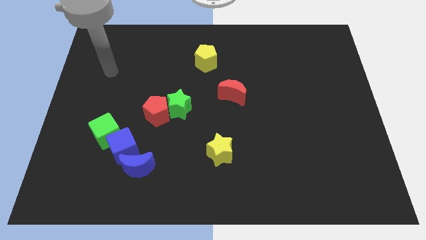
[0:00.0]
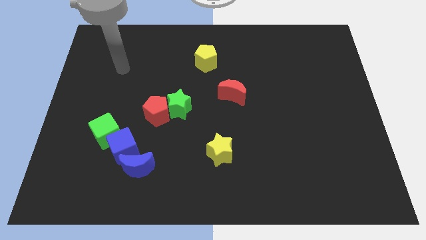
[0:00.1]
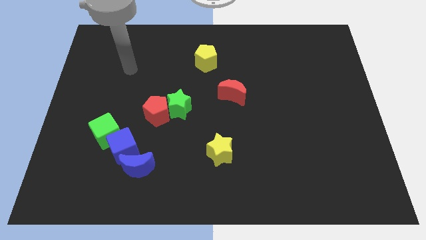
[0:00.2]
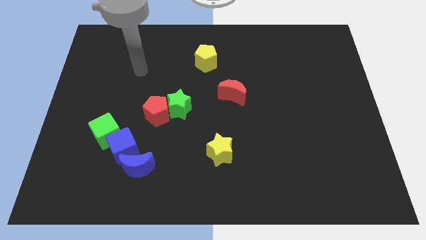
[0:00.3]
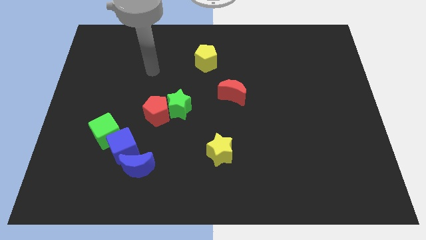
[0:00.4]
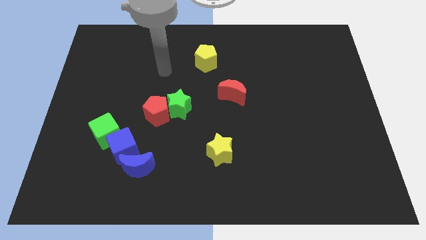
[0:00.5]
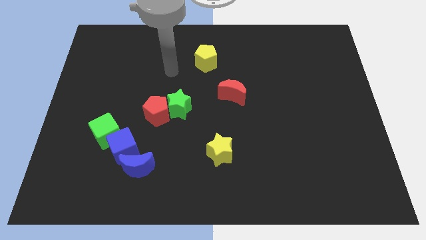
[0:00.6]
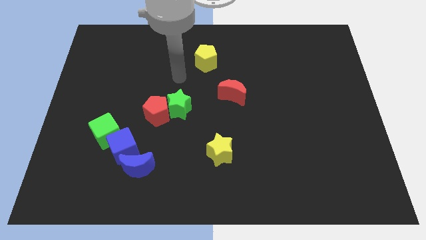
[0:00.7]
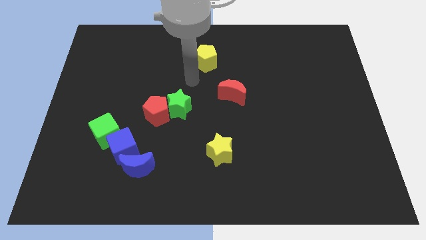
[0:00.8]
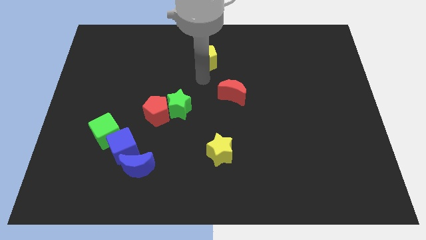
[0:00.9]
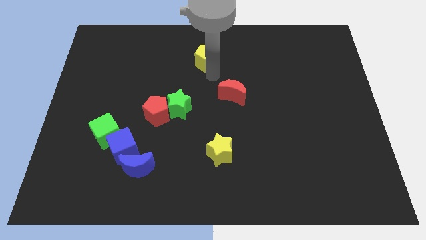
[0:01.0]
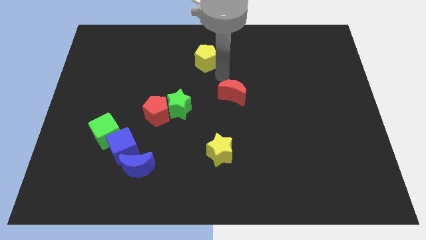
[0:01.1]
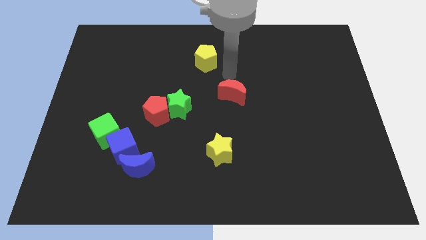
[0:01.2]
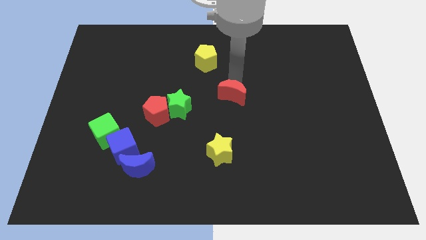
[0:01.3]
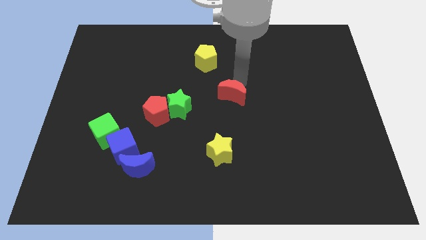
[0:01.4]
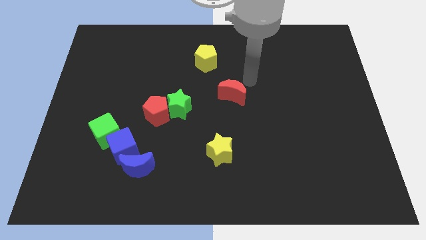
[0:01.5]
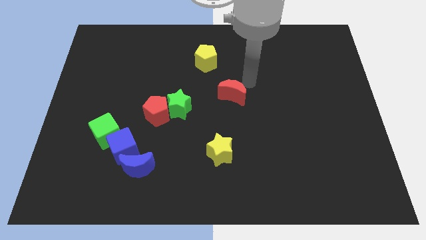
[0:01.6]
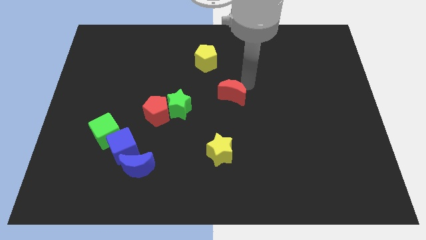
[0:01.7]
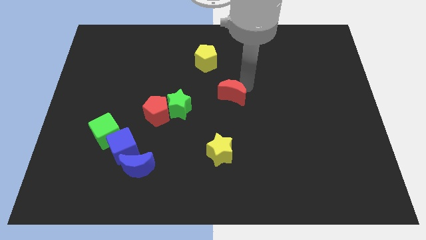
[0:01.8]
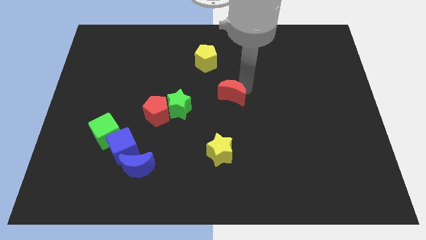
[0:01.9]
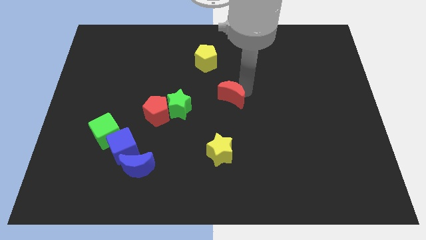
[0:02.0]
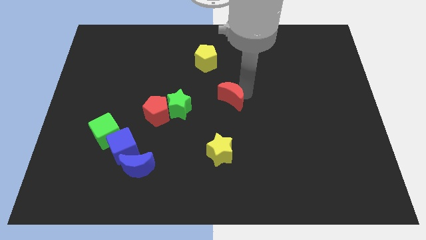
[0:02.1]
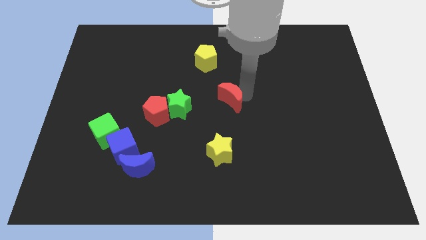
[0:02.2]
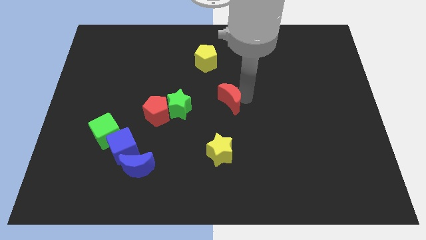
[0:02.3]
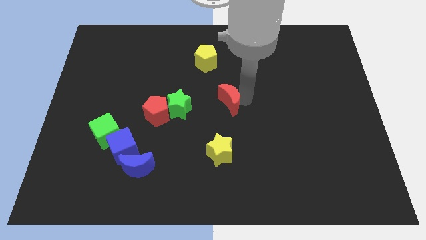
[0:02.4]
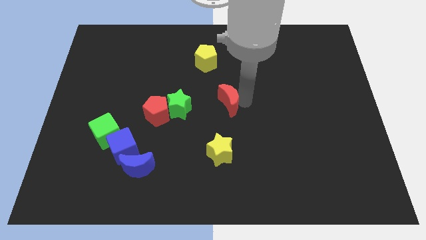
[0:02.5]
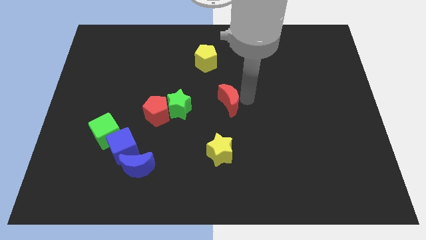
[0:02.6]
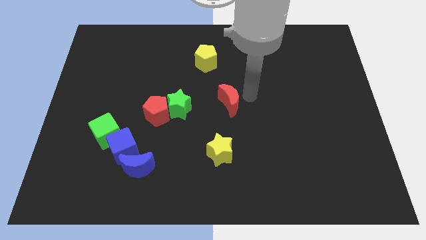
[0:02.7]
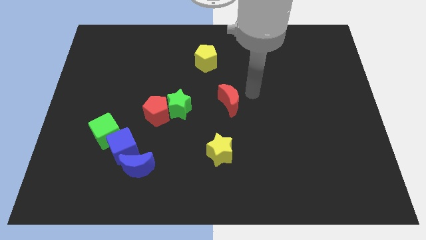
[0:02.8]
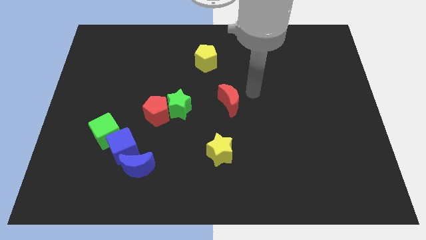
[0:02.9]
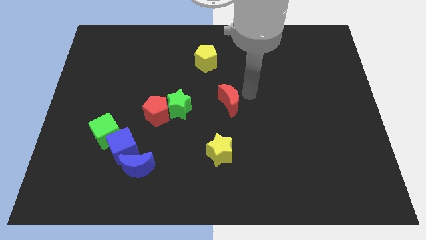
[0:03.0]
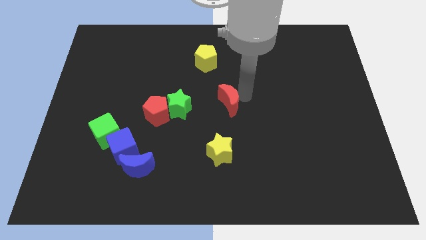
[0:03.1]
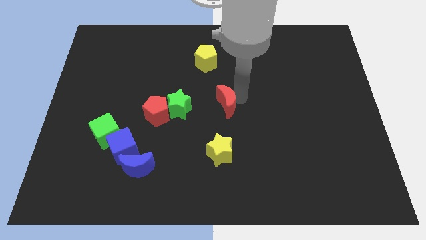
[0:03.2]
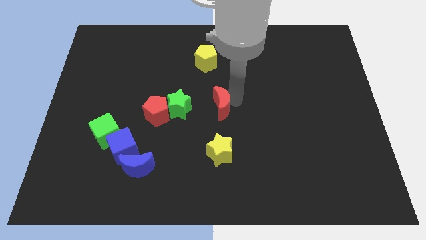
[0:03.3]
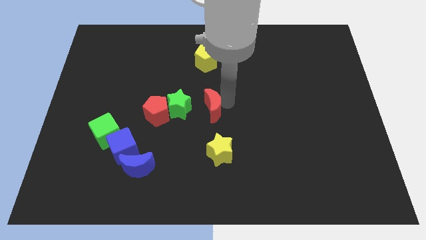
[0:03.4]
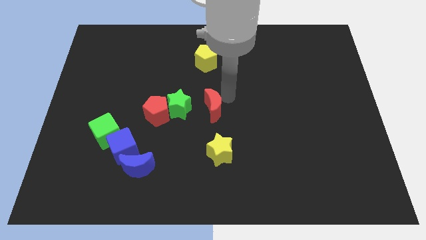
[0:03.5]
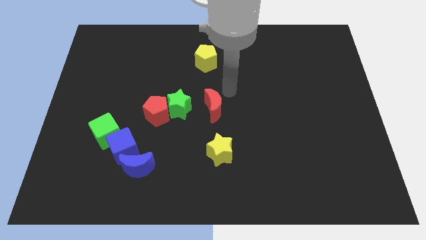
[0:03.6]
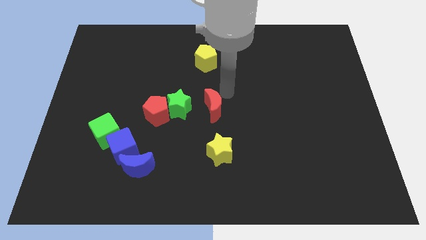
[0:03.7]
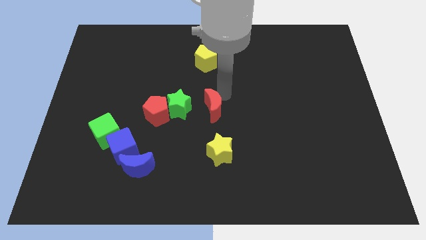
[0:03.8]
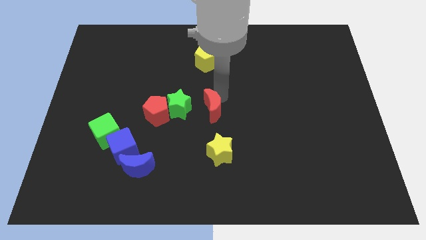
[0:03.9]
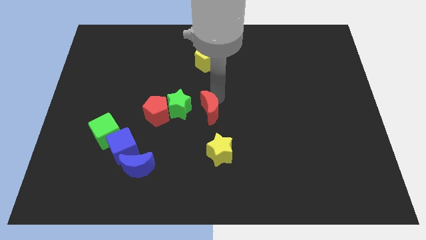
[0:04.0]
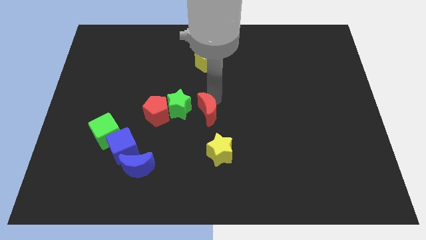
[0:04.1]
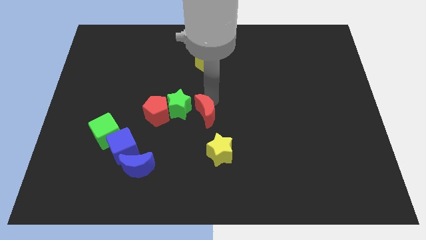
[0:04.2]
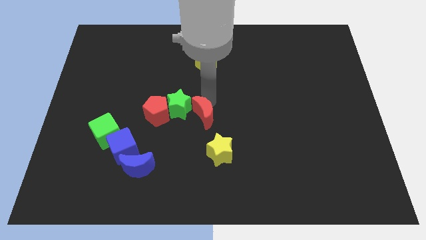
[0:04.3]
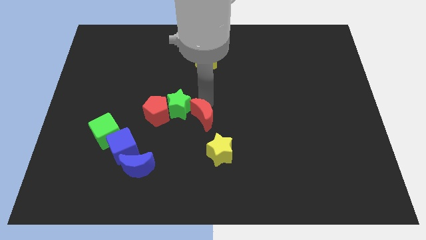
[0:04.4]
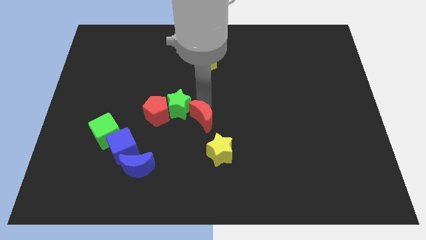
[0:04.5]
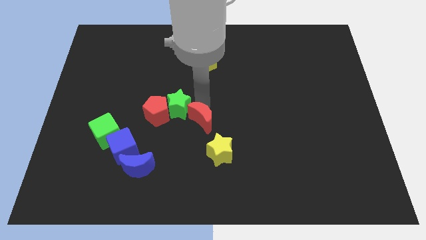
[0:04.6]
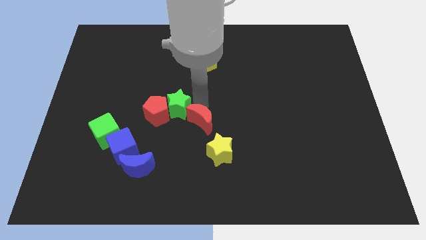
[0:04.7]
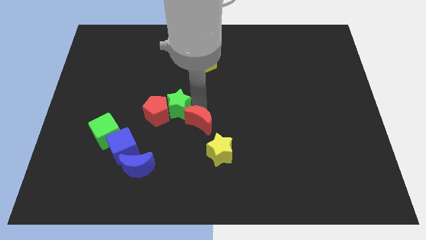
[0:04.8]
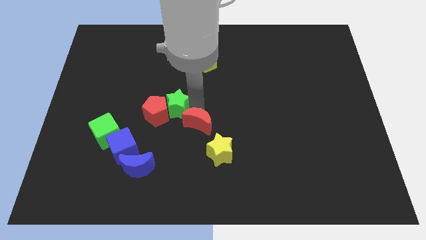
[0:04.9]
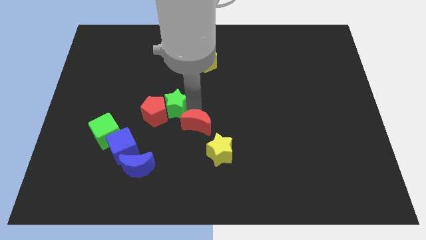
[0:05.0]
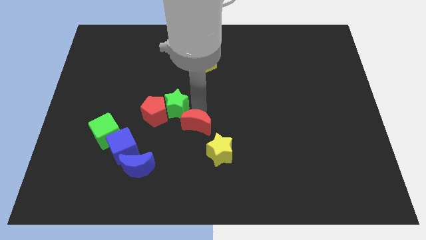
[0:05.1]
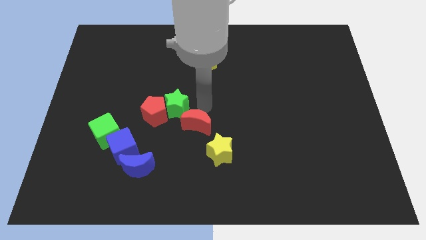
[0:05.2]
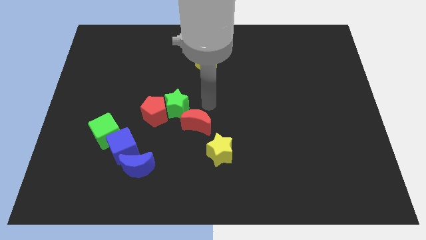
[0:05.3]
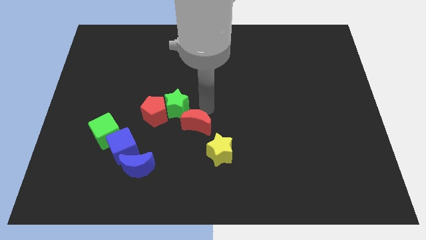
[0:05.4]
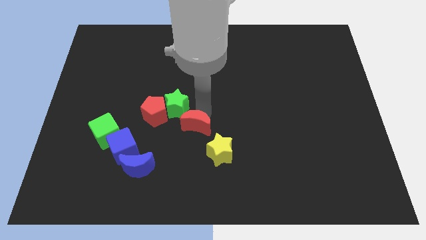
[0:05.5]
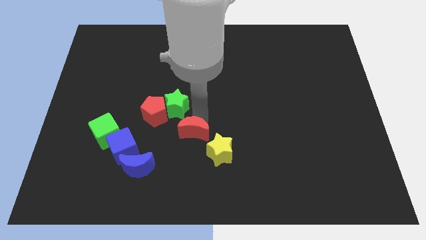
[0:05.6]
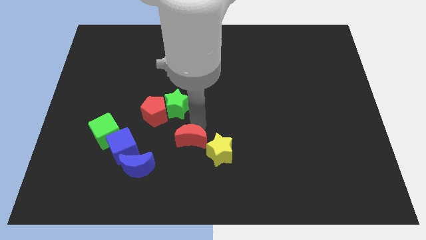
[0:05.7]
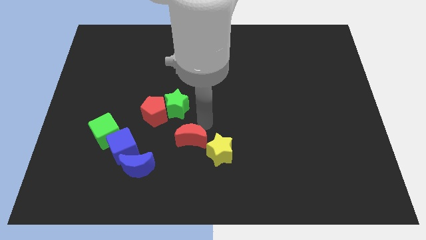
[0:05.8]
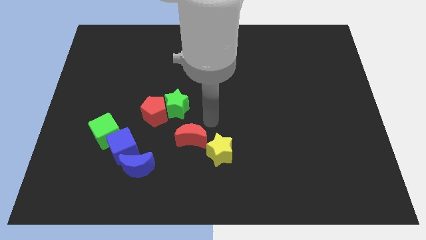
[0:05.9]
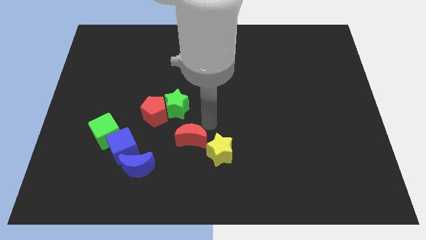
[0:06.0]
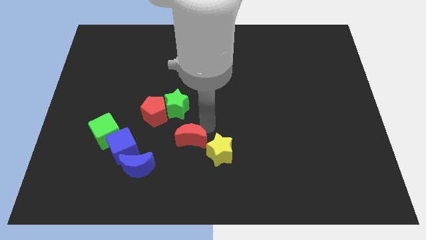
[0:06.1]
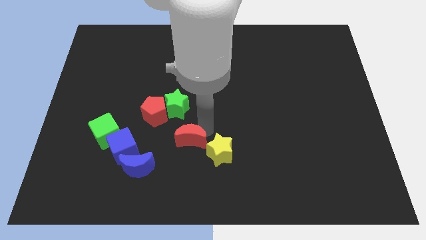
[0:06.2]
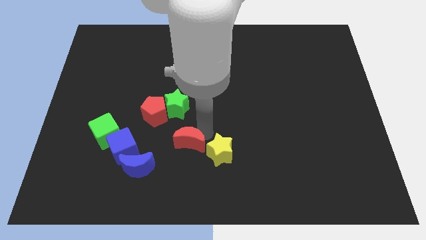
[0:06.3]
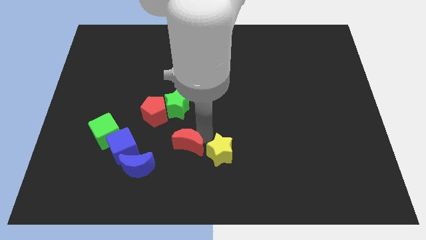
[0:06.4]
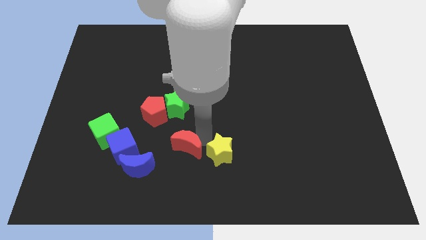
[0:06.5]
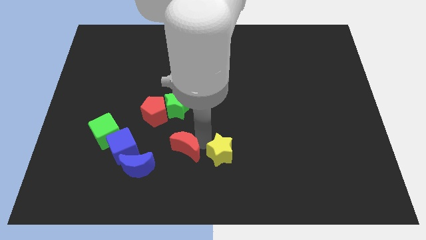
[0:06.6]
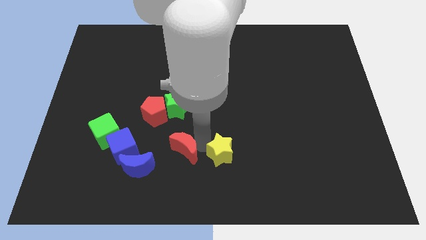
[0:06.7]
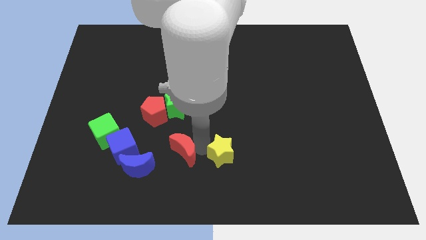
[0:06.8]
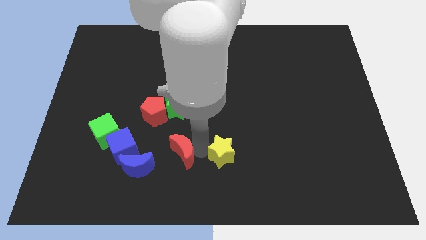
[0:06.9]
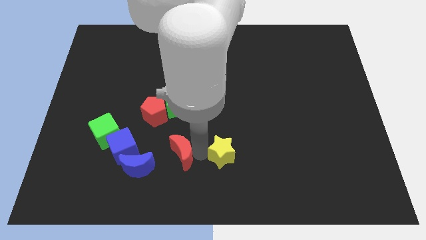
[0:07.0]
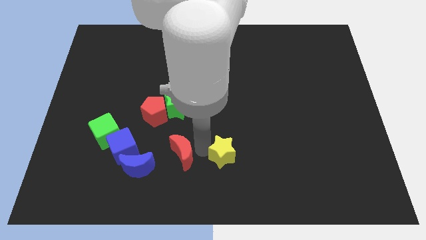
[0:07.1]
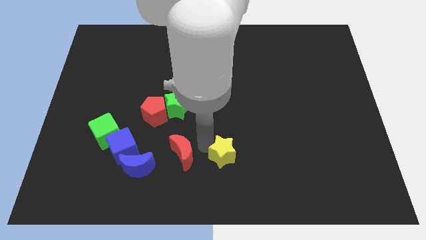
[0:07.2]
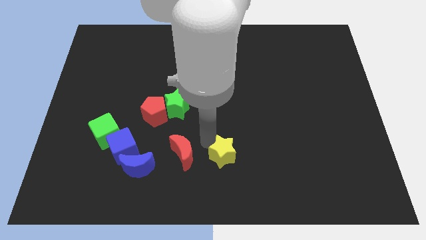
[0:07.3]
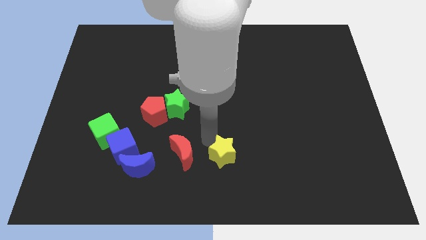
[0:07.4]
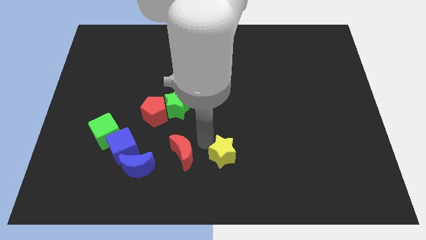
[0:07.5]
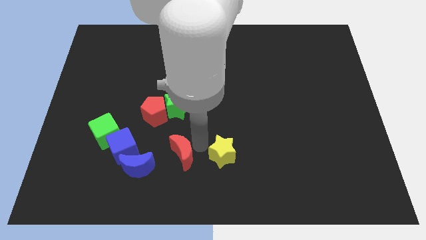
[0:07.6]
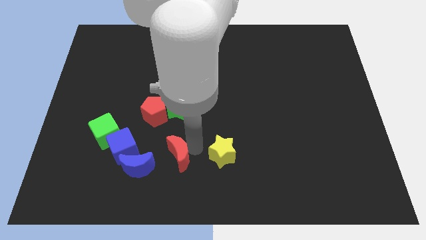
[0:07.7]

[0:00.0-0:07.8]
slide the red moon down and to the left diagonally
